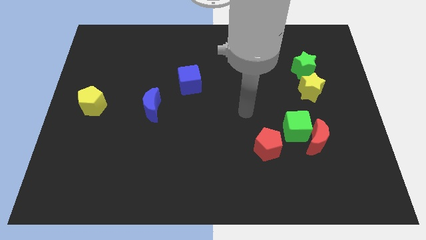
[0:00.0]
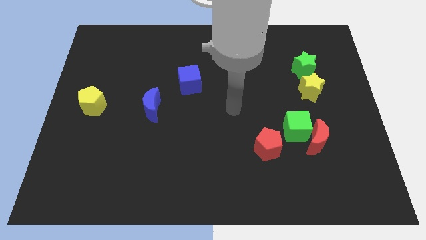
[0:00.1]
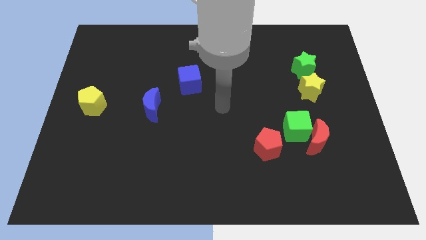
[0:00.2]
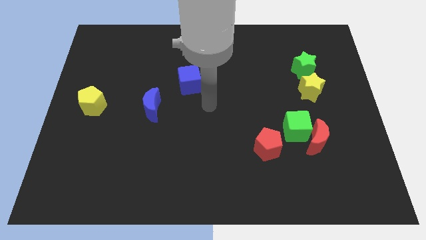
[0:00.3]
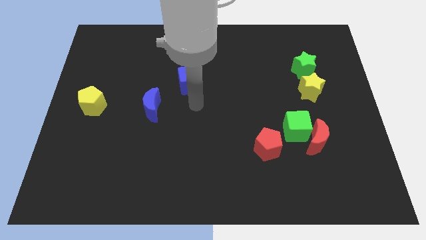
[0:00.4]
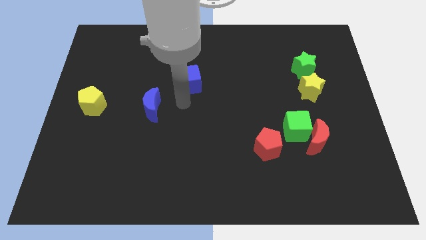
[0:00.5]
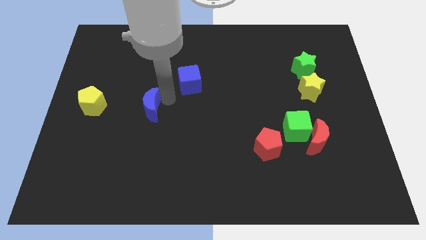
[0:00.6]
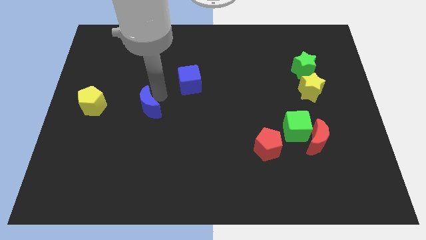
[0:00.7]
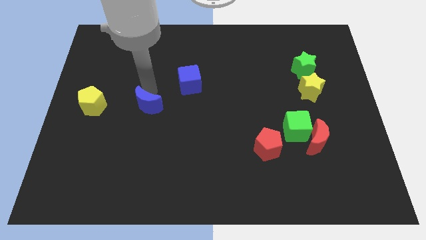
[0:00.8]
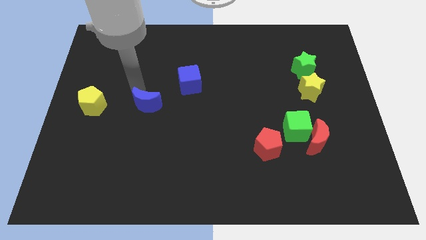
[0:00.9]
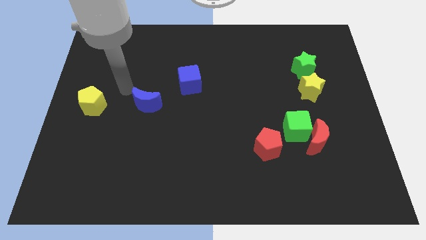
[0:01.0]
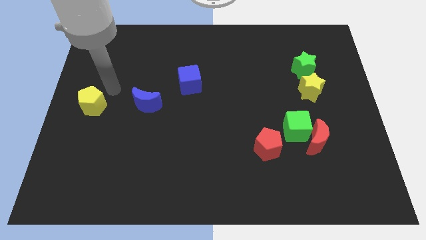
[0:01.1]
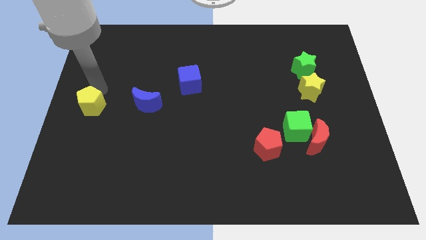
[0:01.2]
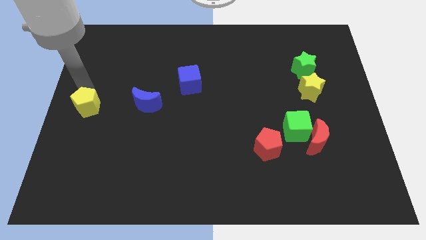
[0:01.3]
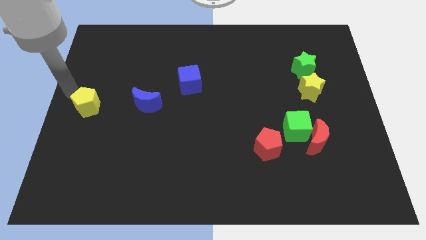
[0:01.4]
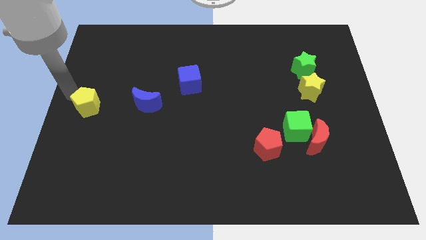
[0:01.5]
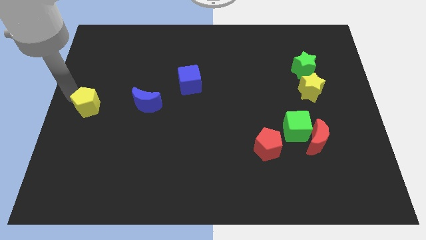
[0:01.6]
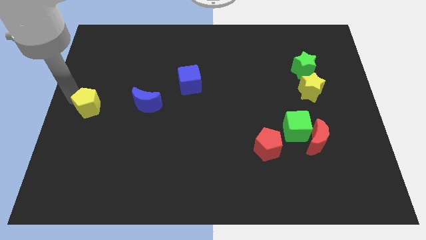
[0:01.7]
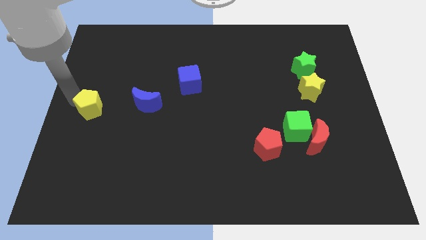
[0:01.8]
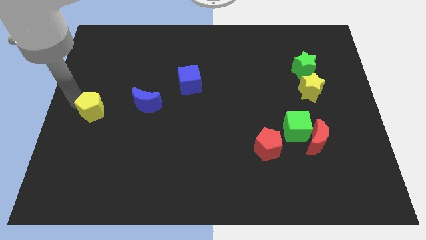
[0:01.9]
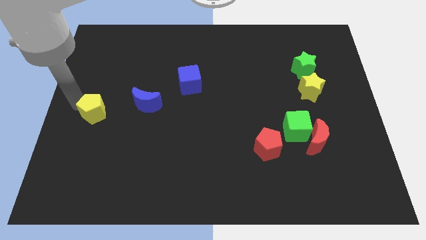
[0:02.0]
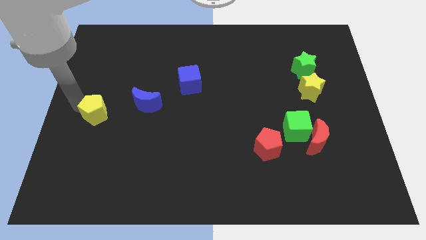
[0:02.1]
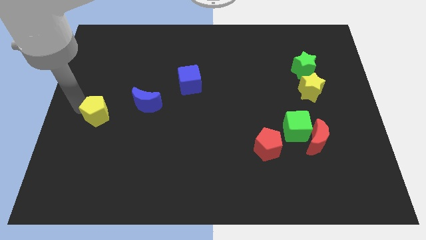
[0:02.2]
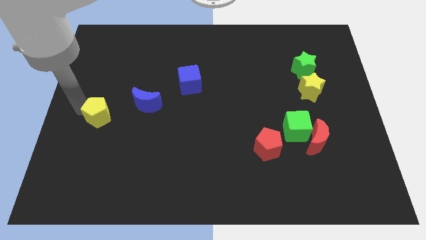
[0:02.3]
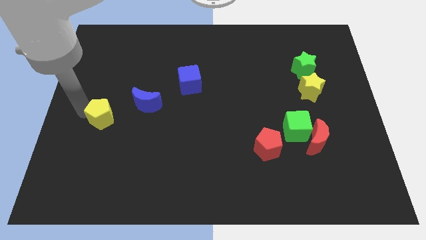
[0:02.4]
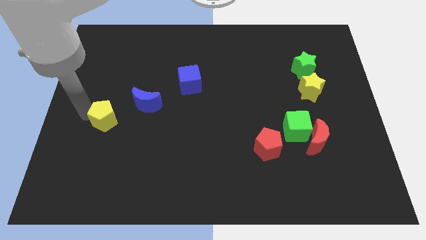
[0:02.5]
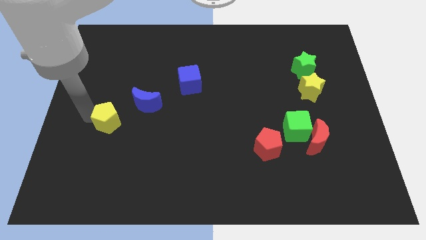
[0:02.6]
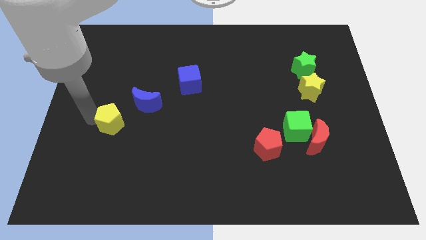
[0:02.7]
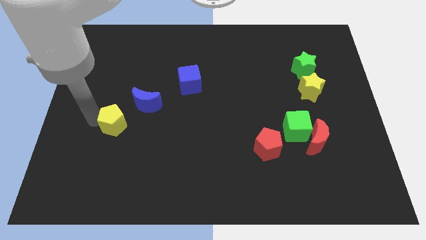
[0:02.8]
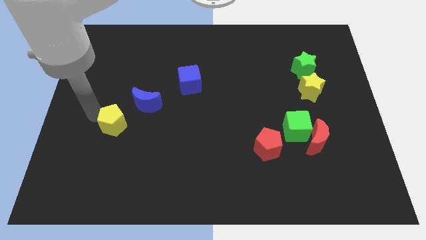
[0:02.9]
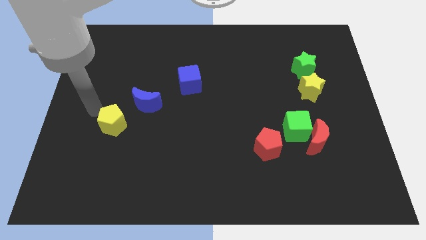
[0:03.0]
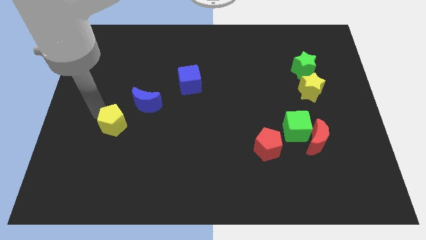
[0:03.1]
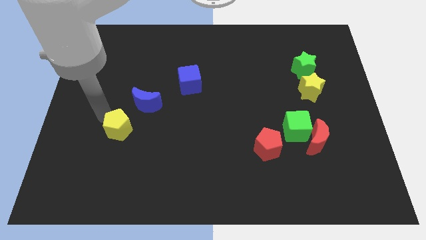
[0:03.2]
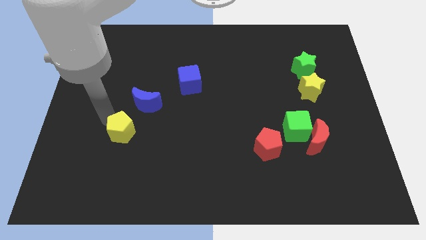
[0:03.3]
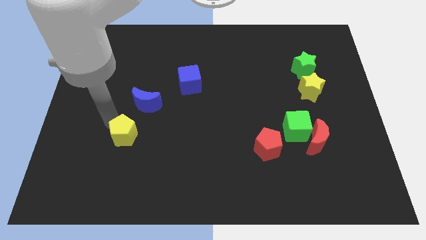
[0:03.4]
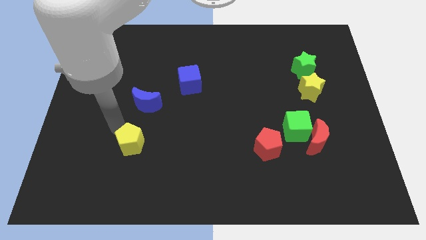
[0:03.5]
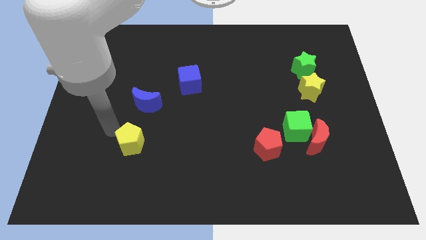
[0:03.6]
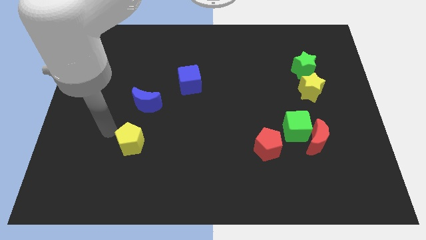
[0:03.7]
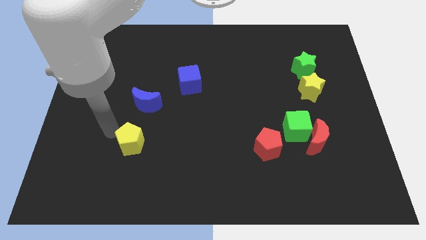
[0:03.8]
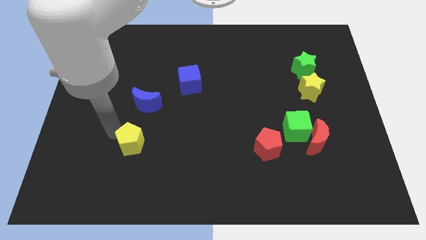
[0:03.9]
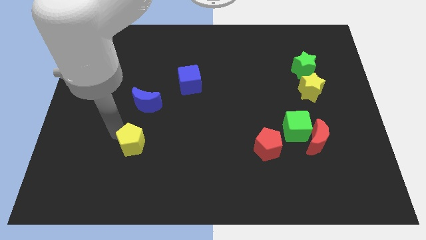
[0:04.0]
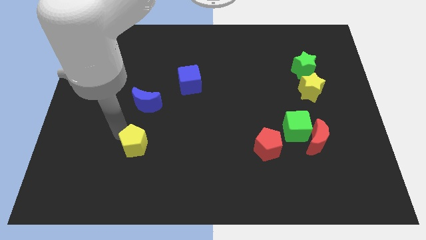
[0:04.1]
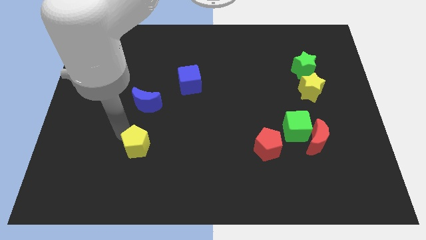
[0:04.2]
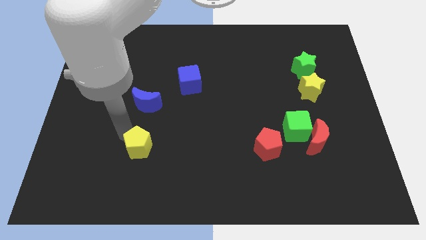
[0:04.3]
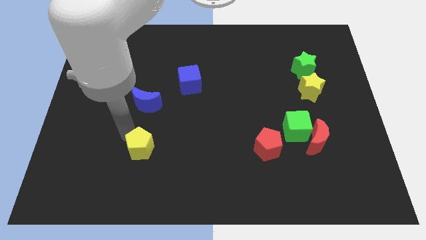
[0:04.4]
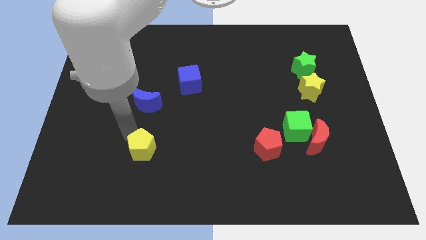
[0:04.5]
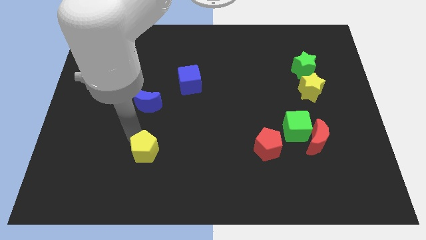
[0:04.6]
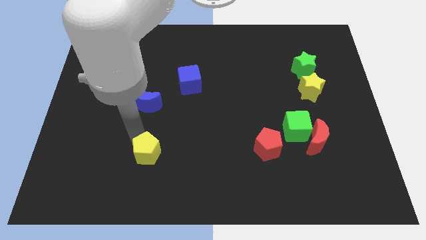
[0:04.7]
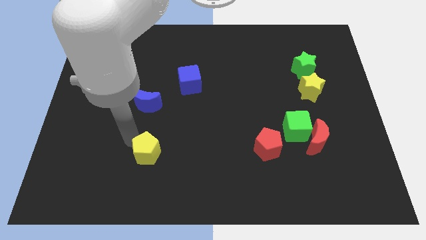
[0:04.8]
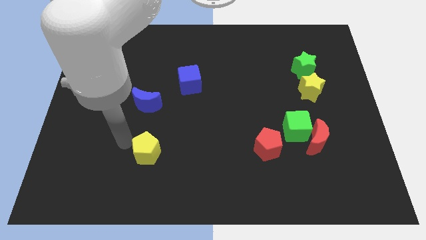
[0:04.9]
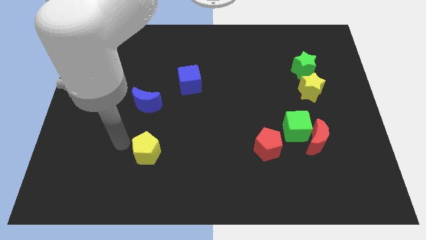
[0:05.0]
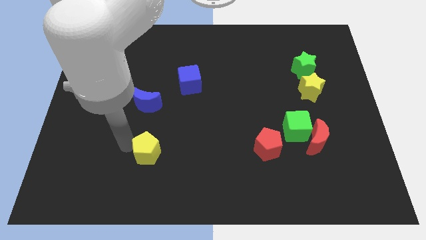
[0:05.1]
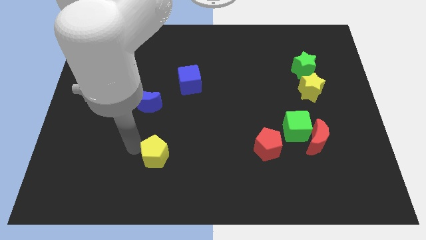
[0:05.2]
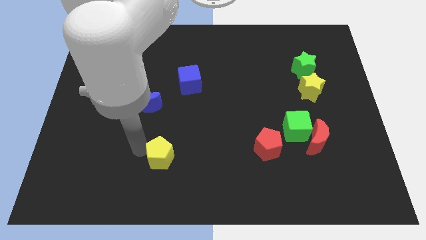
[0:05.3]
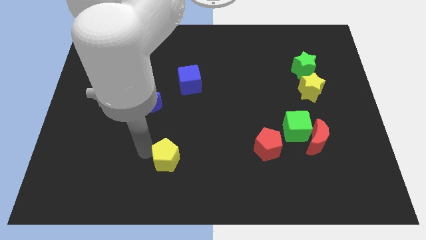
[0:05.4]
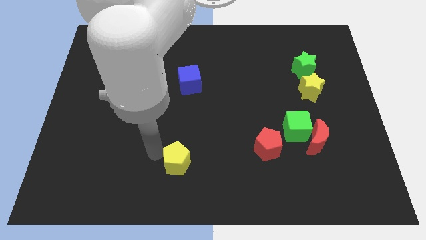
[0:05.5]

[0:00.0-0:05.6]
put the yellow pentagon to the bottom
